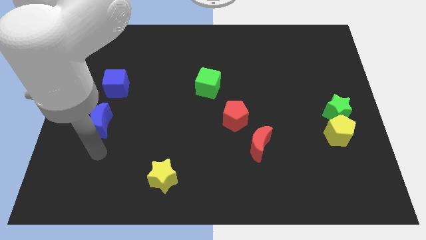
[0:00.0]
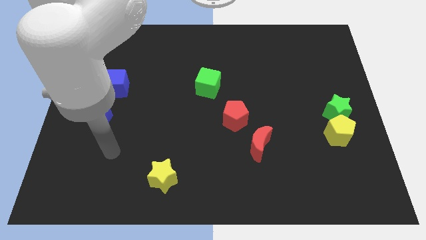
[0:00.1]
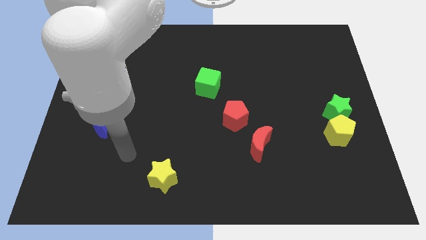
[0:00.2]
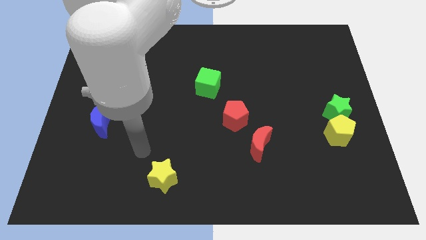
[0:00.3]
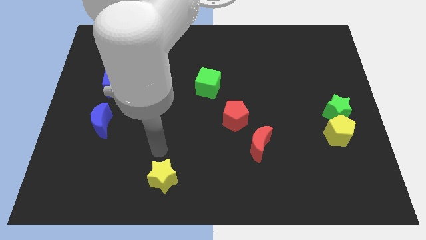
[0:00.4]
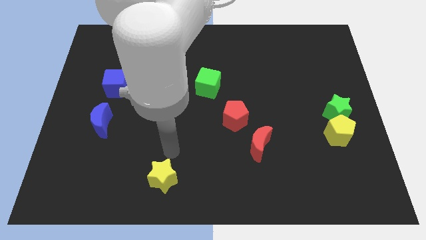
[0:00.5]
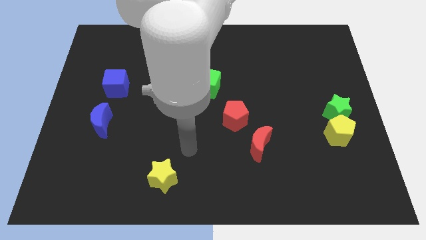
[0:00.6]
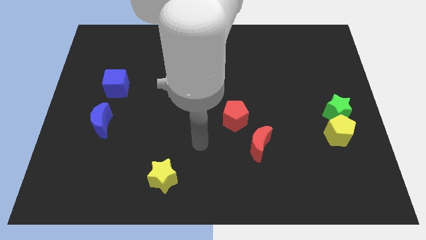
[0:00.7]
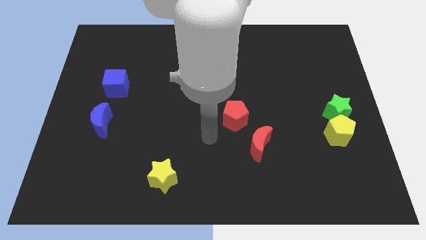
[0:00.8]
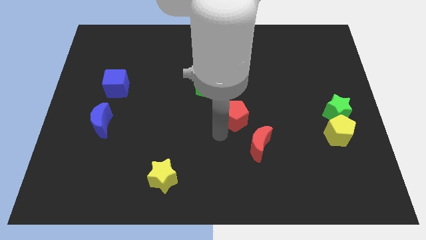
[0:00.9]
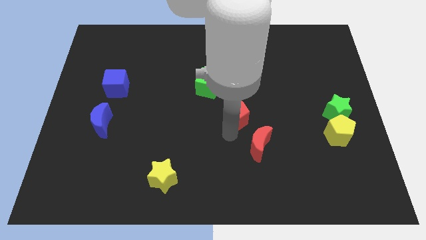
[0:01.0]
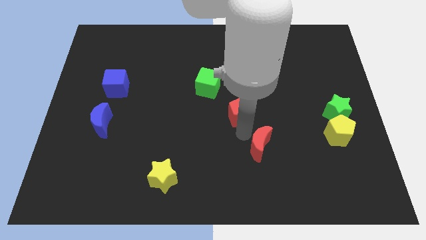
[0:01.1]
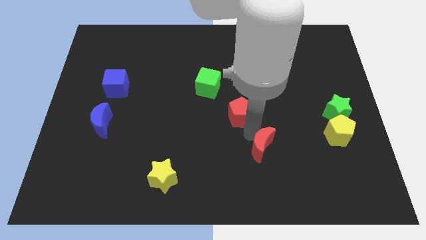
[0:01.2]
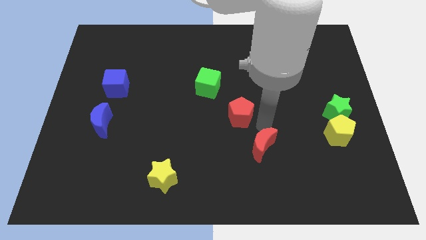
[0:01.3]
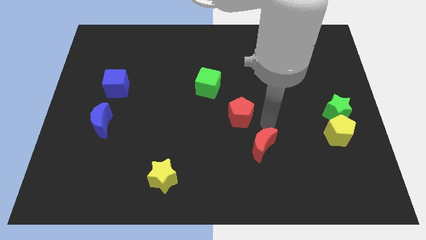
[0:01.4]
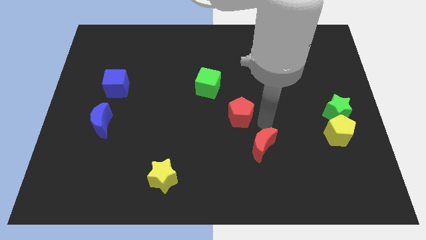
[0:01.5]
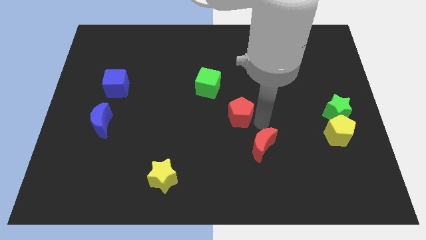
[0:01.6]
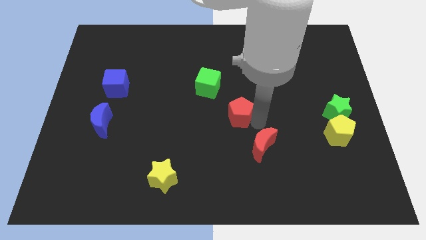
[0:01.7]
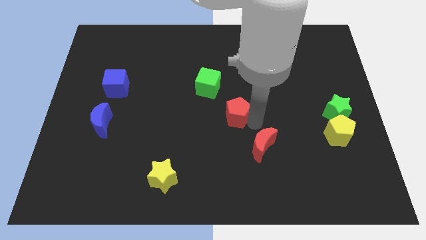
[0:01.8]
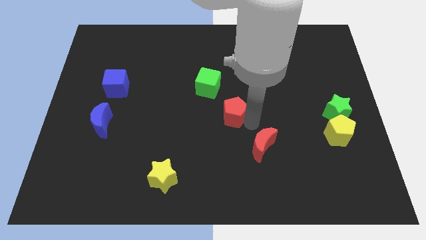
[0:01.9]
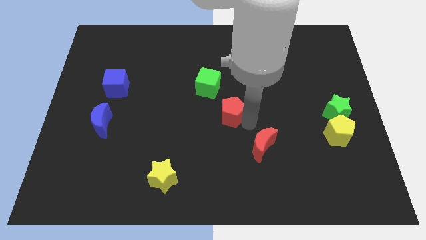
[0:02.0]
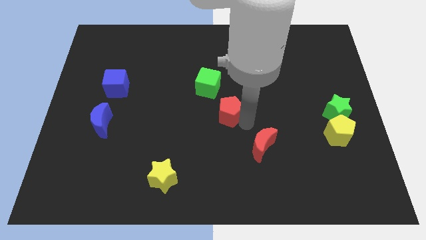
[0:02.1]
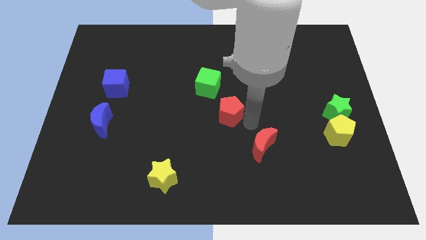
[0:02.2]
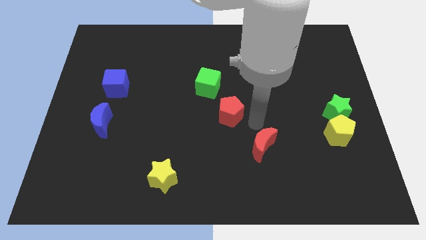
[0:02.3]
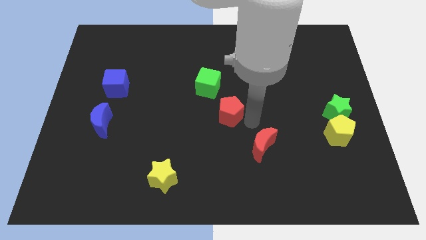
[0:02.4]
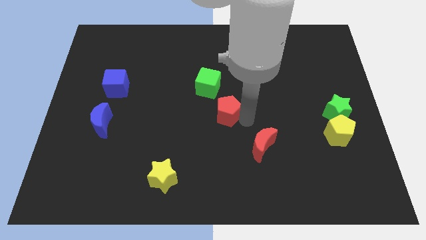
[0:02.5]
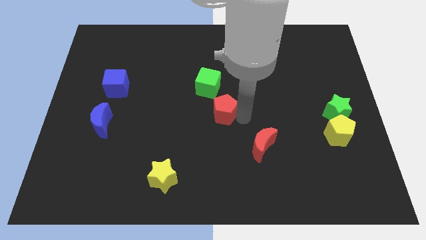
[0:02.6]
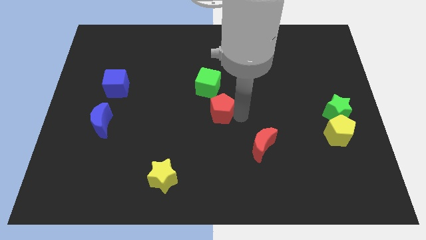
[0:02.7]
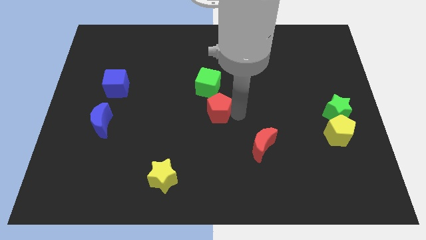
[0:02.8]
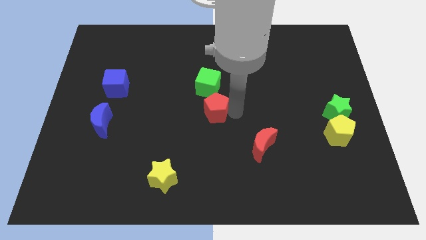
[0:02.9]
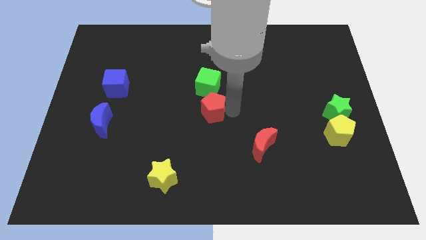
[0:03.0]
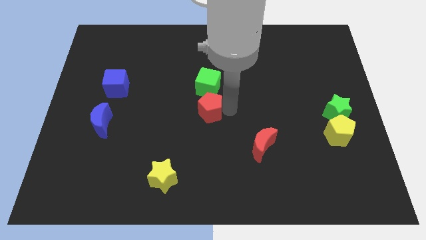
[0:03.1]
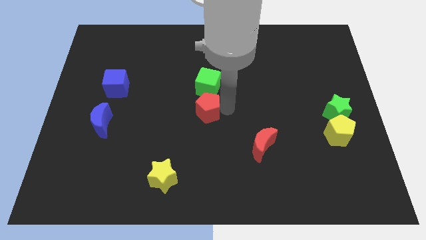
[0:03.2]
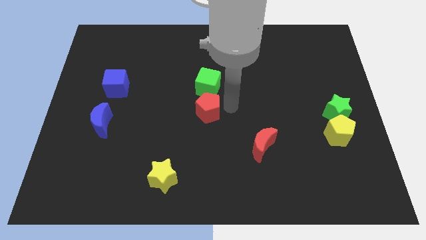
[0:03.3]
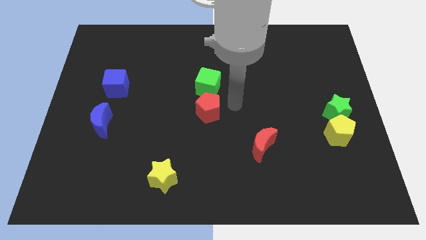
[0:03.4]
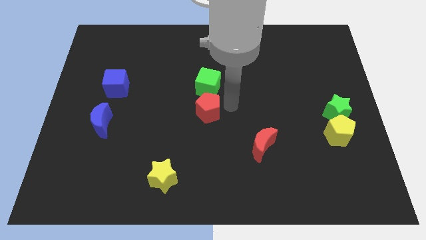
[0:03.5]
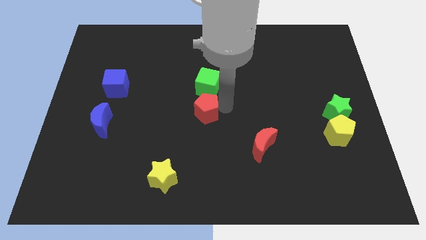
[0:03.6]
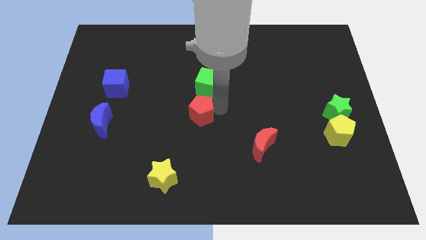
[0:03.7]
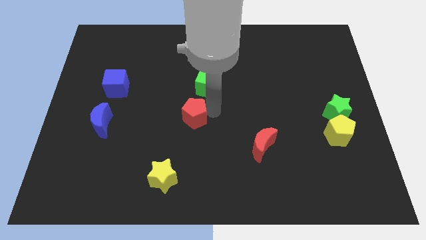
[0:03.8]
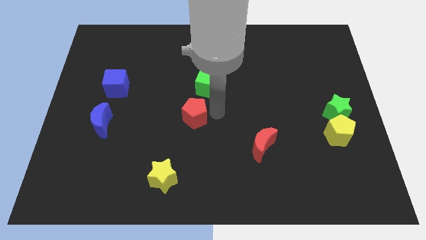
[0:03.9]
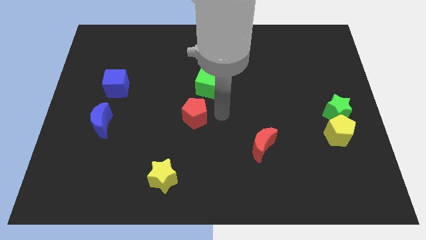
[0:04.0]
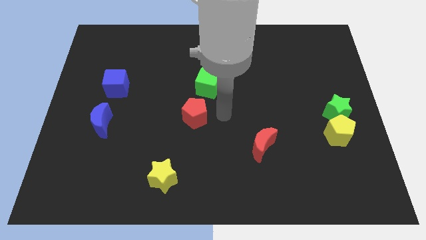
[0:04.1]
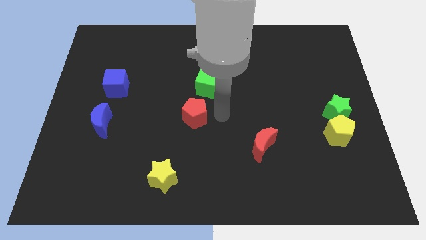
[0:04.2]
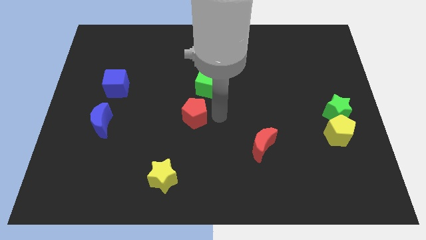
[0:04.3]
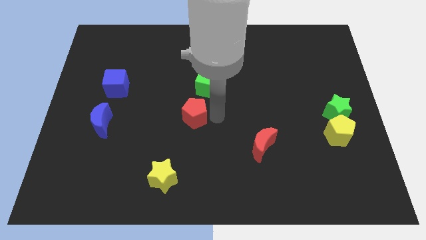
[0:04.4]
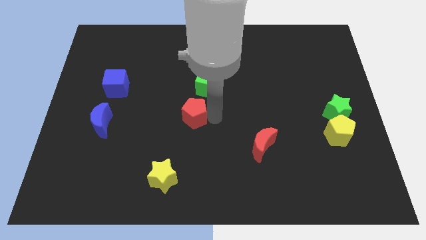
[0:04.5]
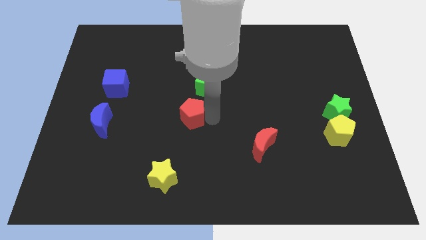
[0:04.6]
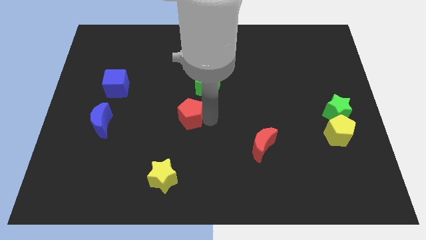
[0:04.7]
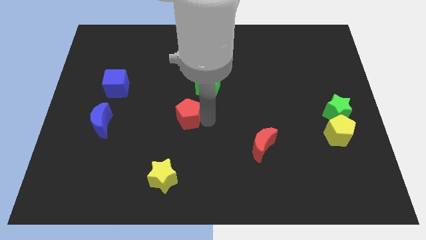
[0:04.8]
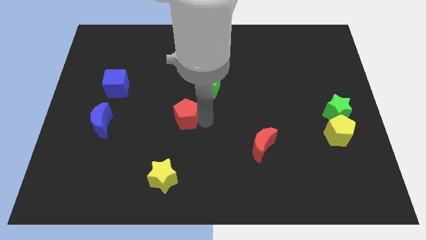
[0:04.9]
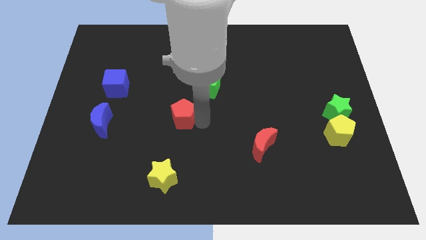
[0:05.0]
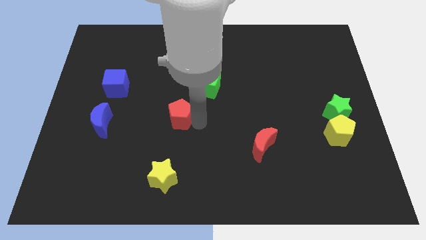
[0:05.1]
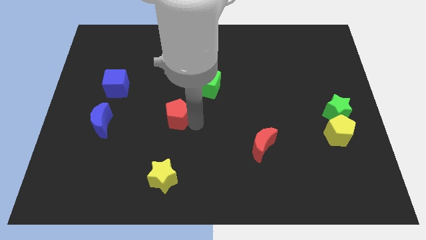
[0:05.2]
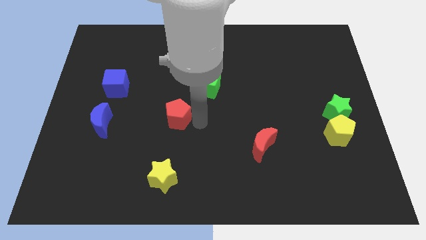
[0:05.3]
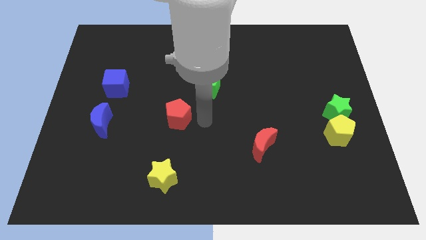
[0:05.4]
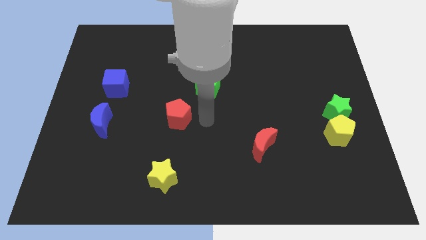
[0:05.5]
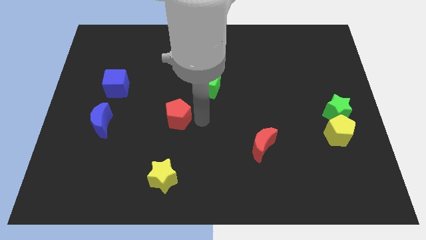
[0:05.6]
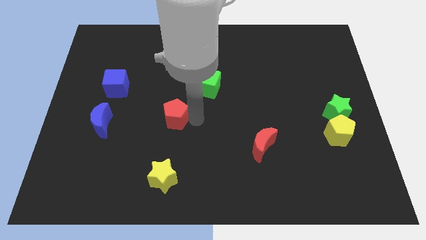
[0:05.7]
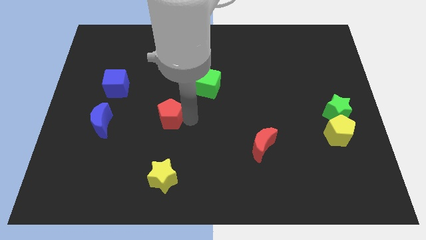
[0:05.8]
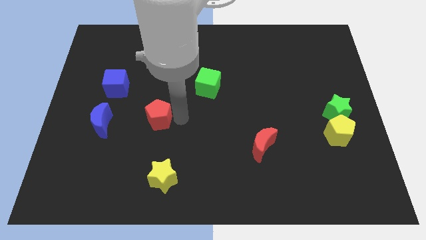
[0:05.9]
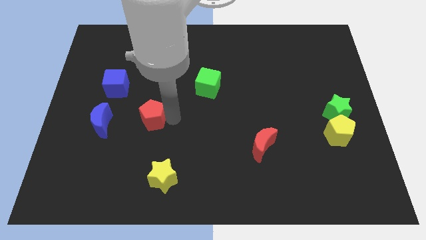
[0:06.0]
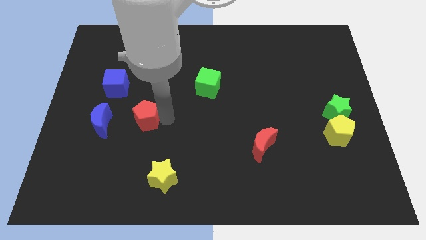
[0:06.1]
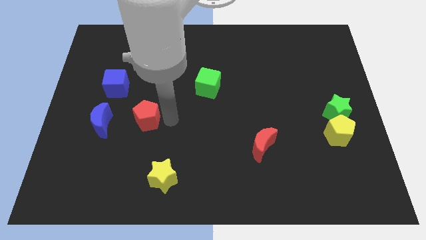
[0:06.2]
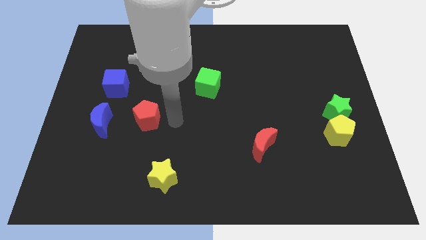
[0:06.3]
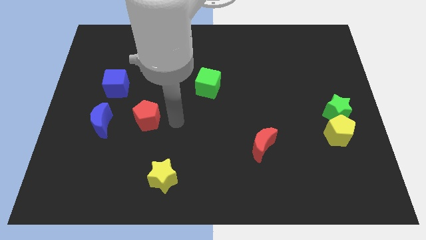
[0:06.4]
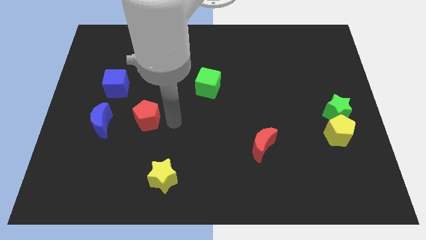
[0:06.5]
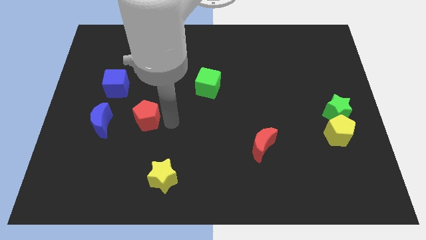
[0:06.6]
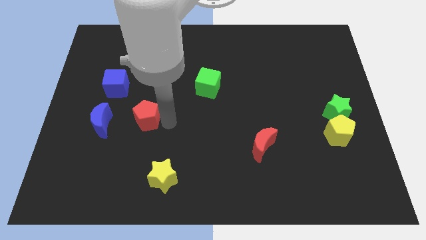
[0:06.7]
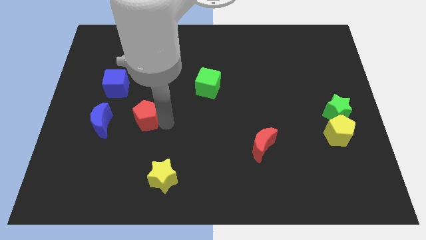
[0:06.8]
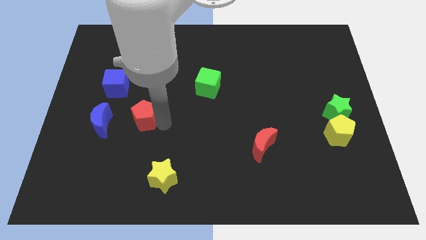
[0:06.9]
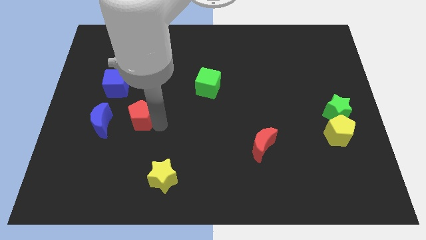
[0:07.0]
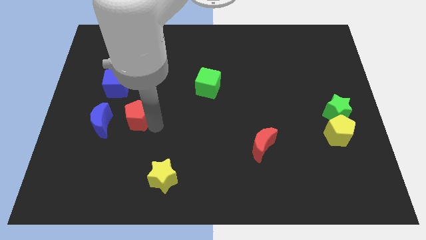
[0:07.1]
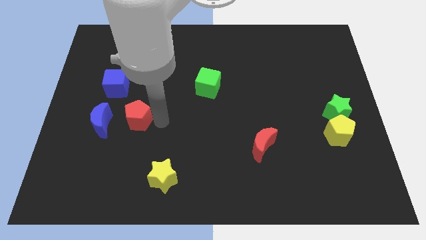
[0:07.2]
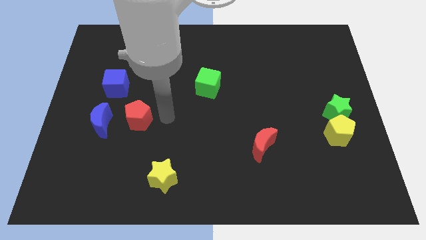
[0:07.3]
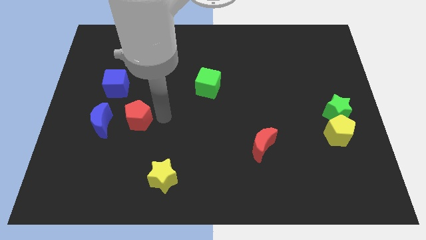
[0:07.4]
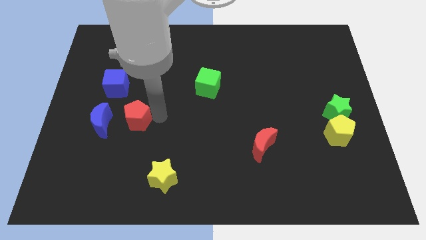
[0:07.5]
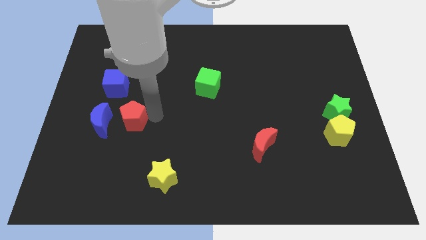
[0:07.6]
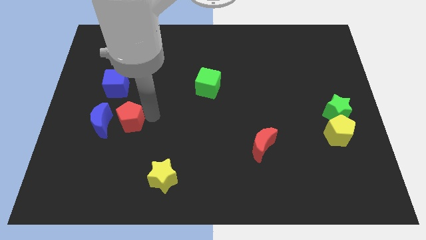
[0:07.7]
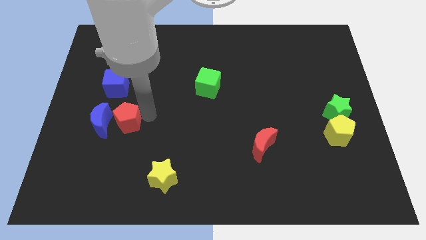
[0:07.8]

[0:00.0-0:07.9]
move the red pentagon next to the blue moon
